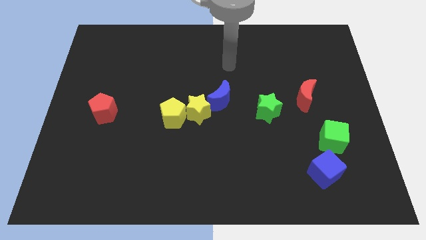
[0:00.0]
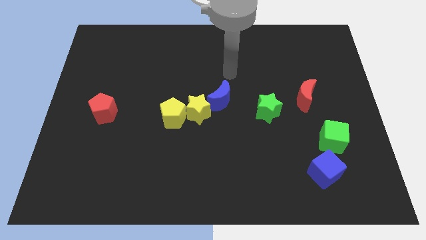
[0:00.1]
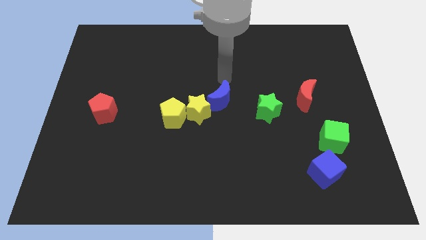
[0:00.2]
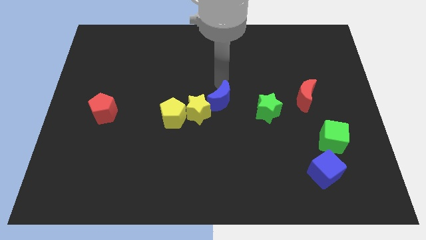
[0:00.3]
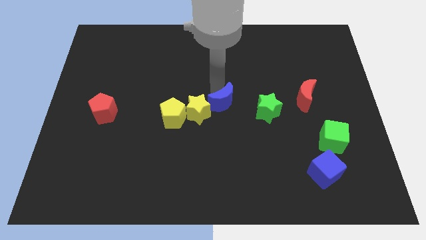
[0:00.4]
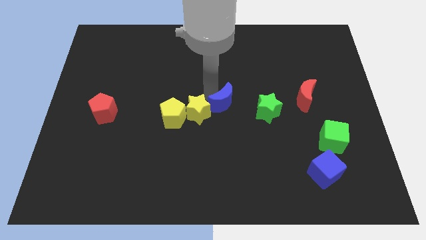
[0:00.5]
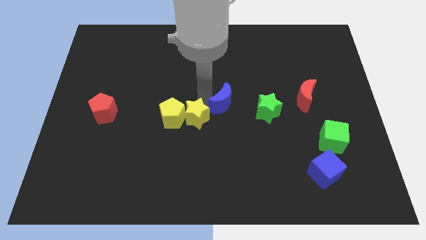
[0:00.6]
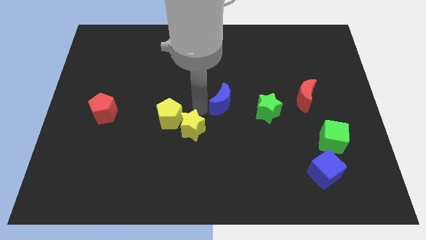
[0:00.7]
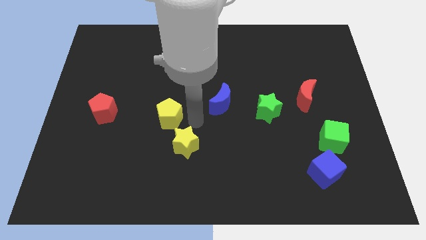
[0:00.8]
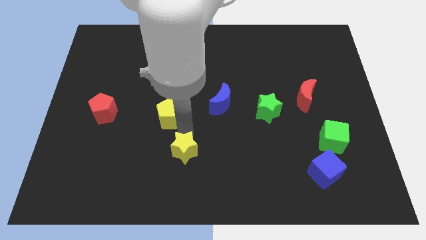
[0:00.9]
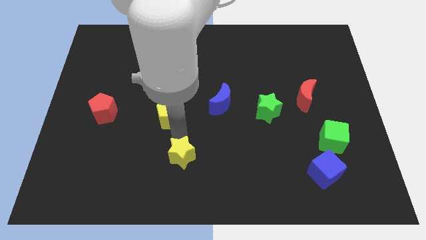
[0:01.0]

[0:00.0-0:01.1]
move the yellow pentagon away from the yellow star

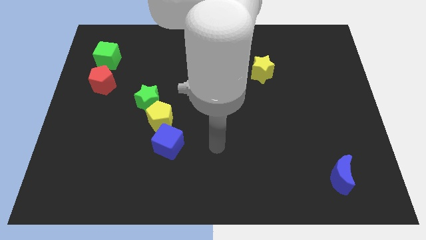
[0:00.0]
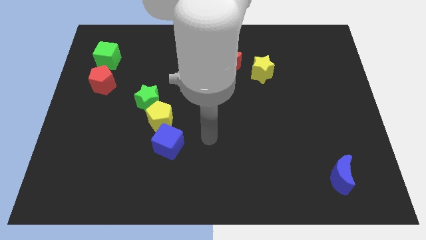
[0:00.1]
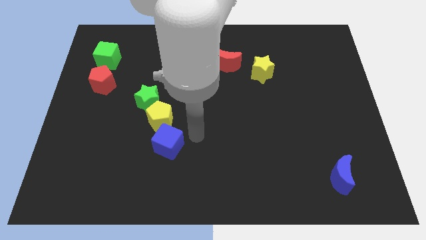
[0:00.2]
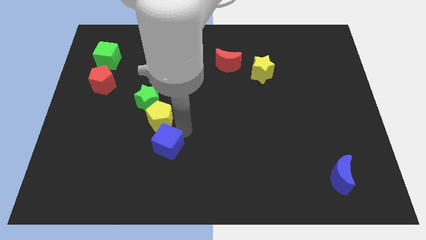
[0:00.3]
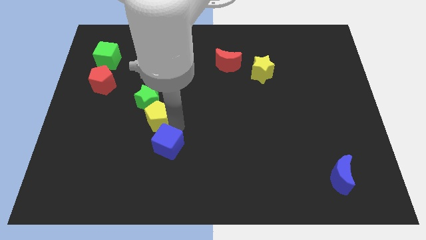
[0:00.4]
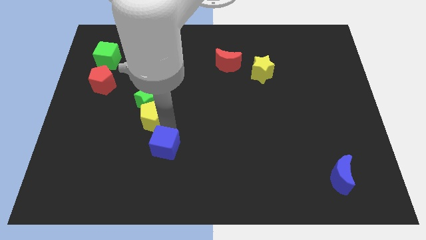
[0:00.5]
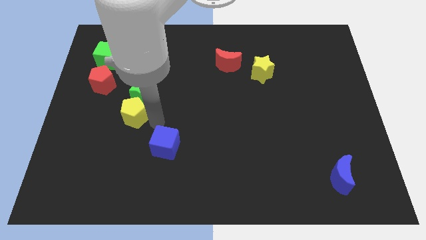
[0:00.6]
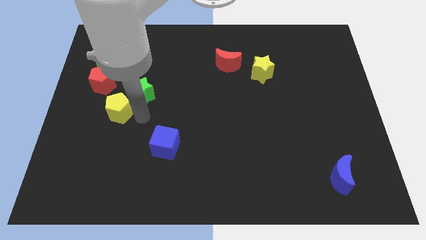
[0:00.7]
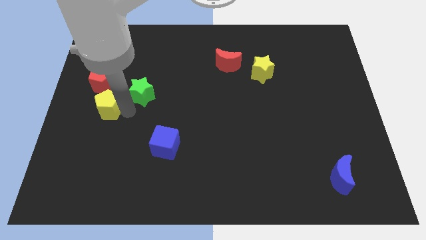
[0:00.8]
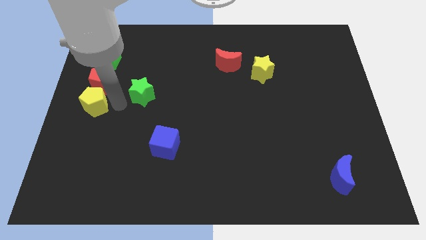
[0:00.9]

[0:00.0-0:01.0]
pull the green star apart from the yellow pentagon

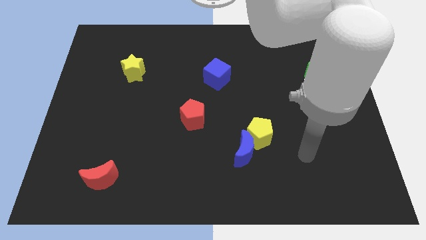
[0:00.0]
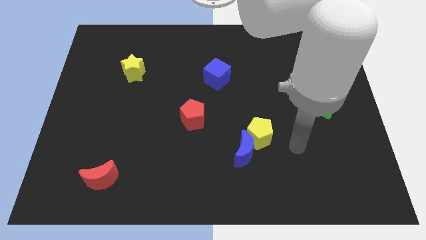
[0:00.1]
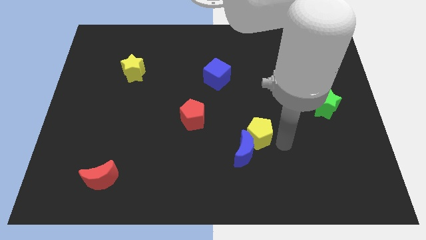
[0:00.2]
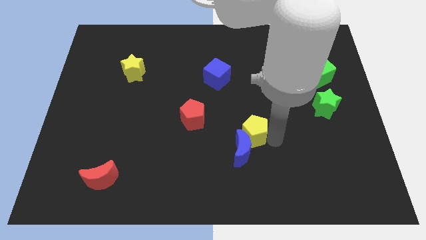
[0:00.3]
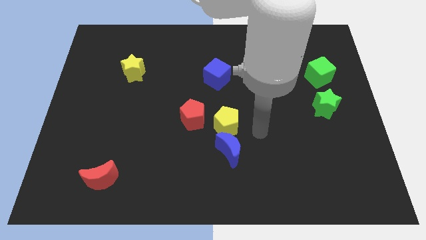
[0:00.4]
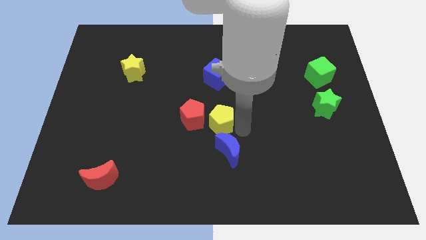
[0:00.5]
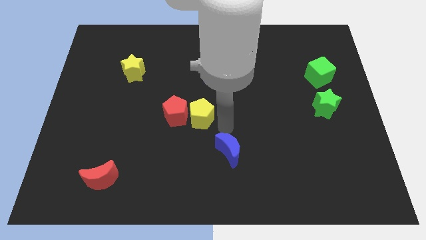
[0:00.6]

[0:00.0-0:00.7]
move the blue moon away from the yellow pentagon

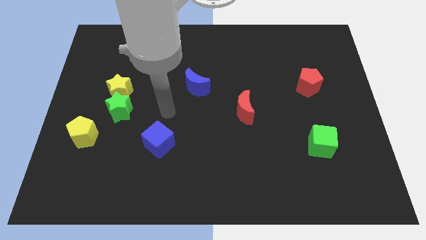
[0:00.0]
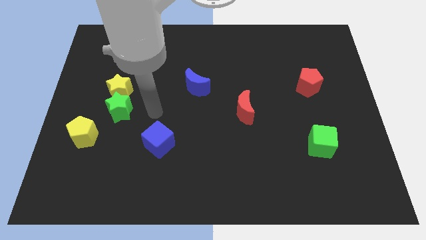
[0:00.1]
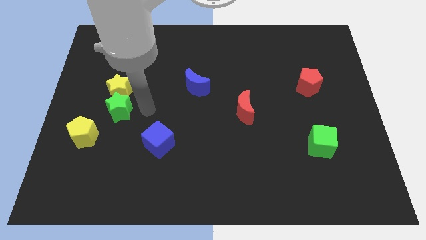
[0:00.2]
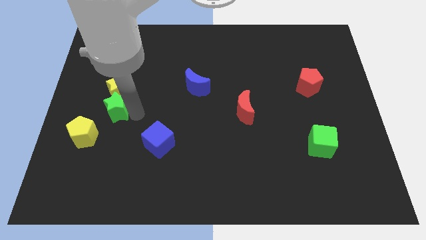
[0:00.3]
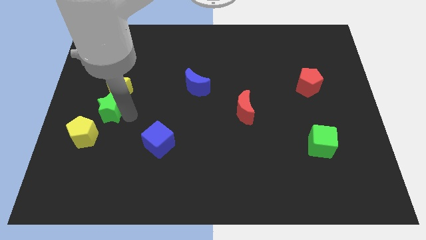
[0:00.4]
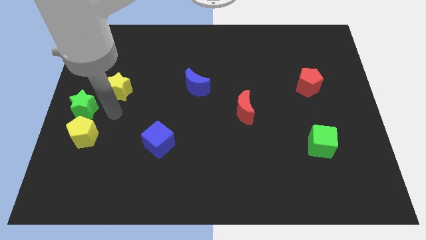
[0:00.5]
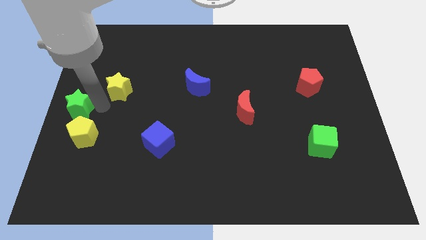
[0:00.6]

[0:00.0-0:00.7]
move the yellow star away from the green star

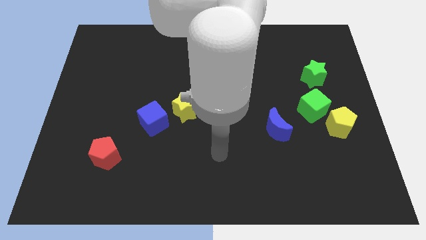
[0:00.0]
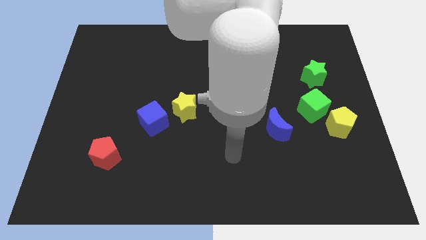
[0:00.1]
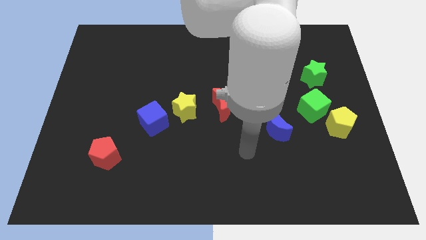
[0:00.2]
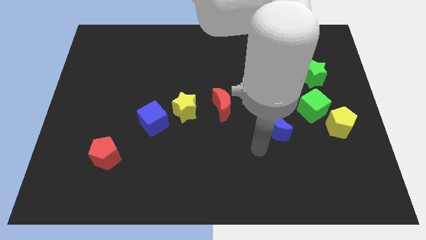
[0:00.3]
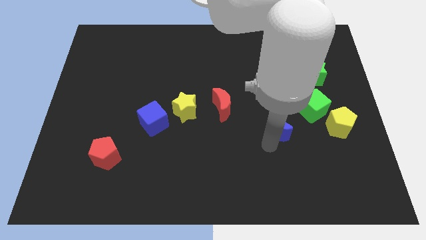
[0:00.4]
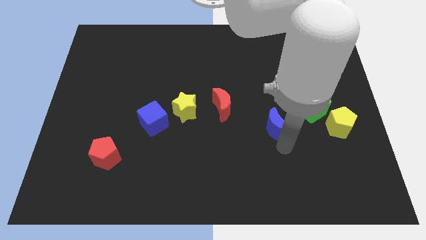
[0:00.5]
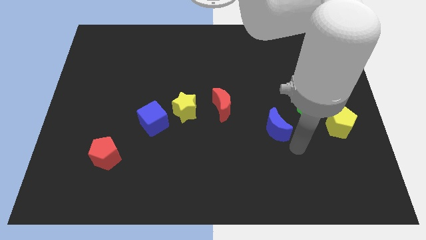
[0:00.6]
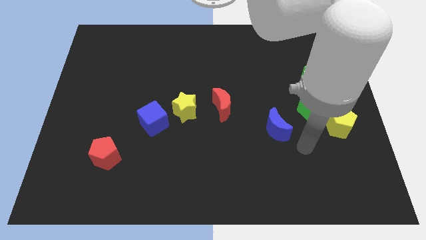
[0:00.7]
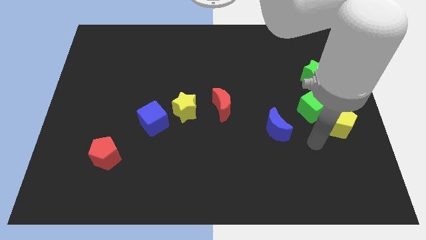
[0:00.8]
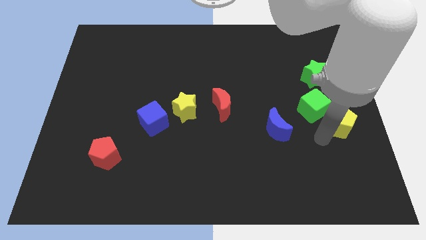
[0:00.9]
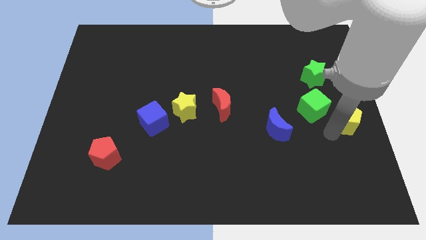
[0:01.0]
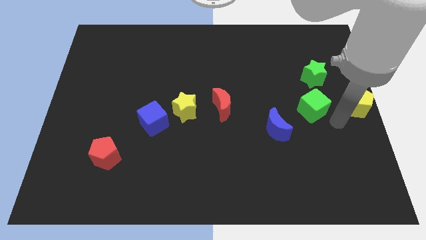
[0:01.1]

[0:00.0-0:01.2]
move the green cube away from the yellow pentagon

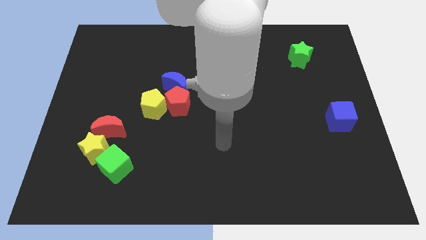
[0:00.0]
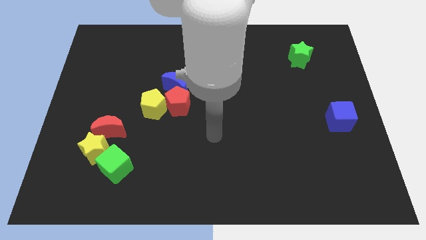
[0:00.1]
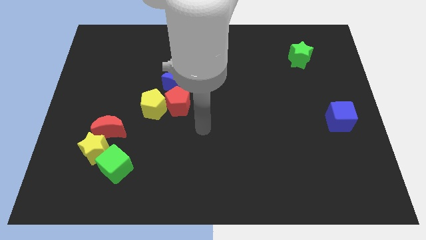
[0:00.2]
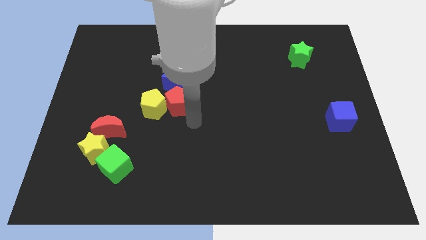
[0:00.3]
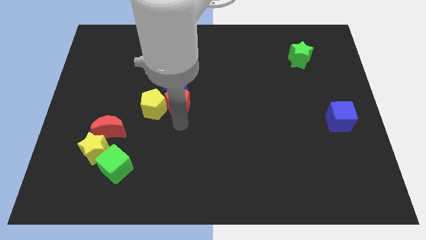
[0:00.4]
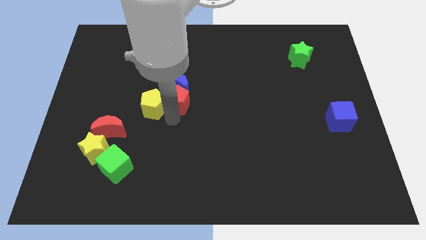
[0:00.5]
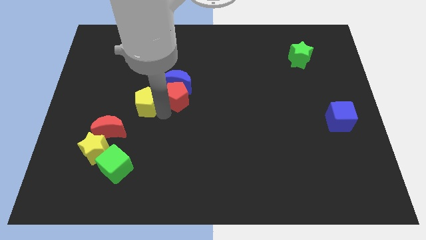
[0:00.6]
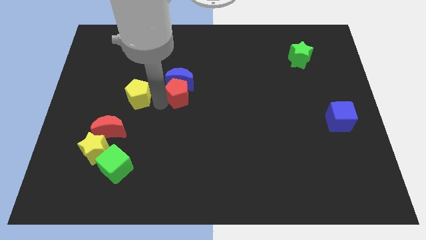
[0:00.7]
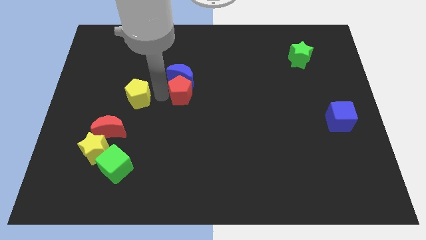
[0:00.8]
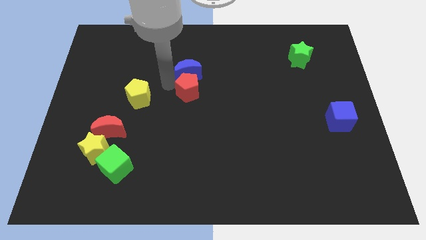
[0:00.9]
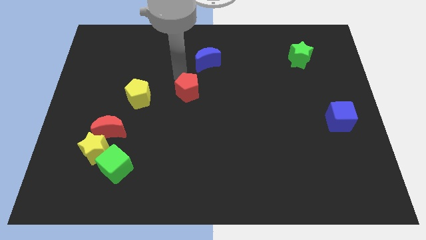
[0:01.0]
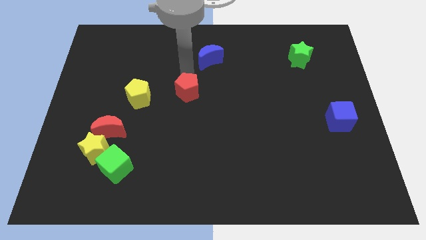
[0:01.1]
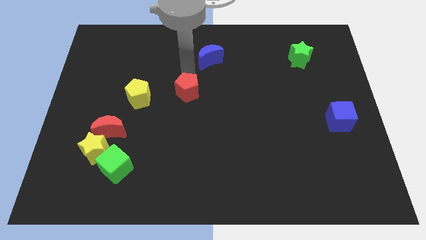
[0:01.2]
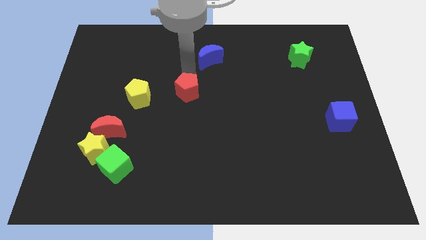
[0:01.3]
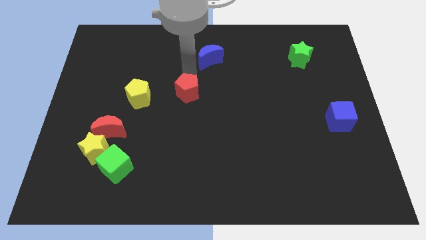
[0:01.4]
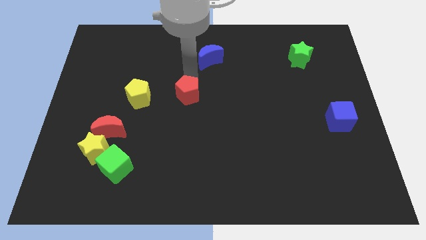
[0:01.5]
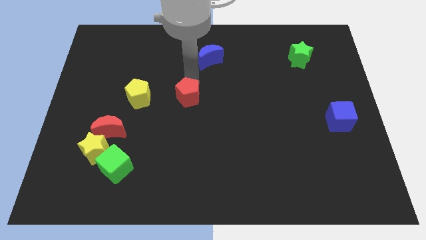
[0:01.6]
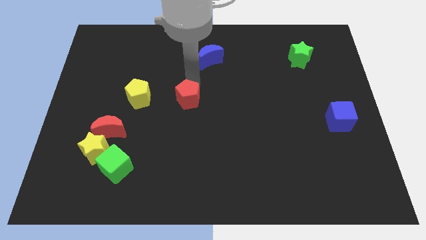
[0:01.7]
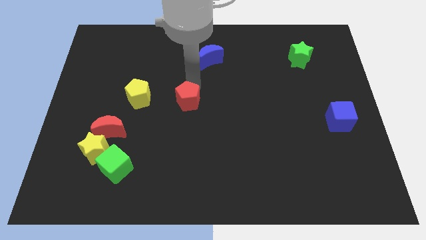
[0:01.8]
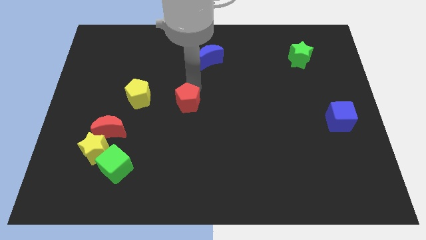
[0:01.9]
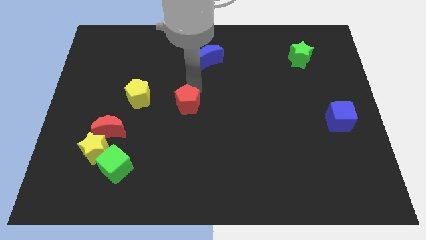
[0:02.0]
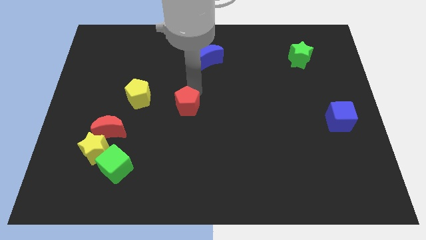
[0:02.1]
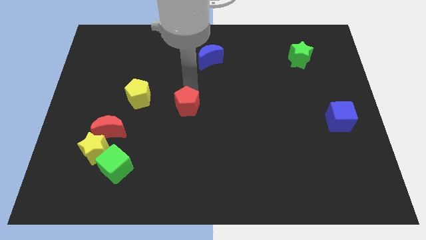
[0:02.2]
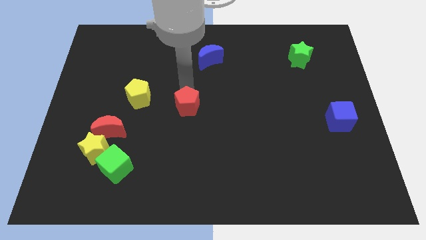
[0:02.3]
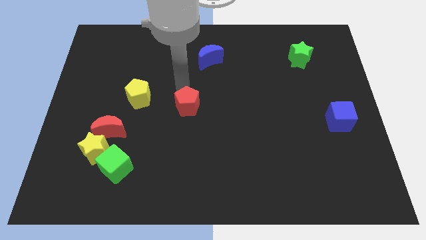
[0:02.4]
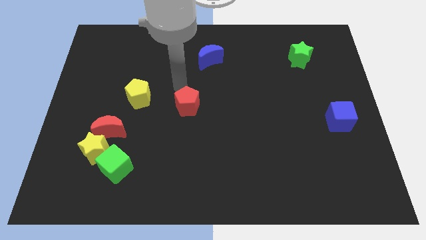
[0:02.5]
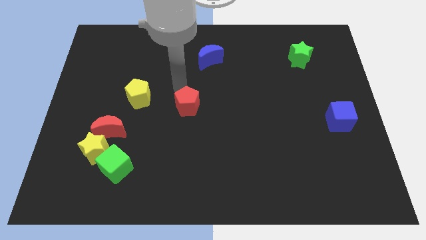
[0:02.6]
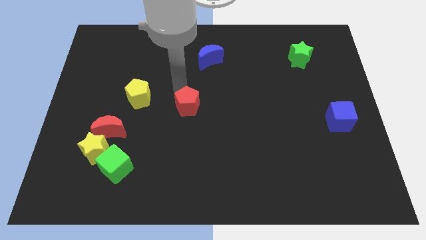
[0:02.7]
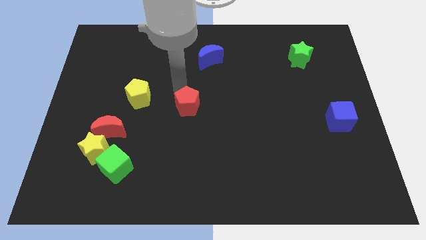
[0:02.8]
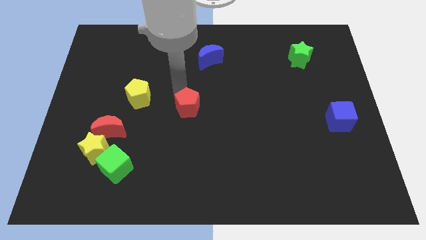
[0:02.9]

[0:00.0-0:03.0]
pull the red pentagon apart from the blue moon and yellow pentagon

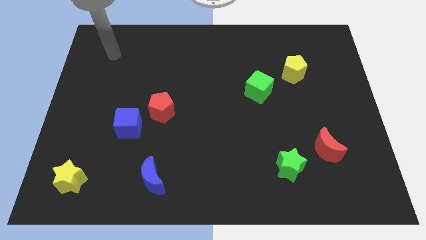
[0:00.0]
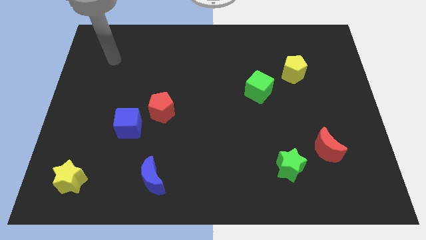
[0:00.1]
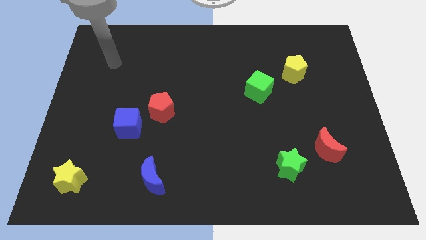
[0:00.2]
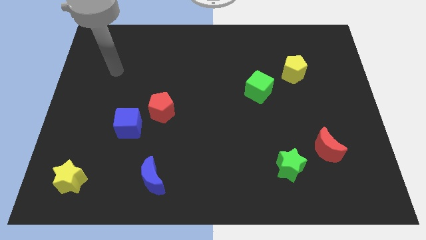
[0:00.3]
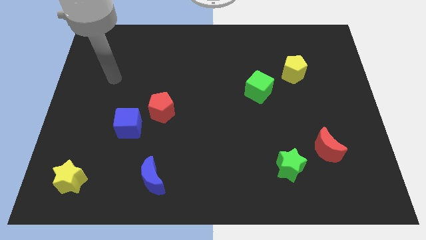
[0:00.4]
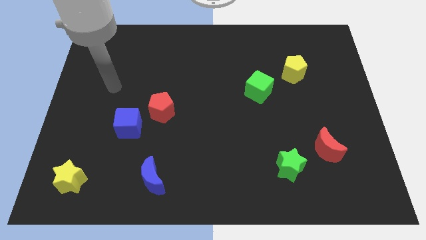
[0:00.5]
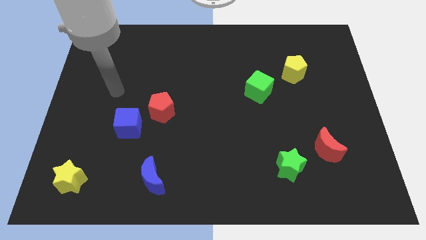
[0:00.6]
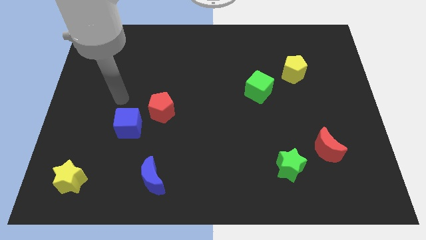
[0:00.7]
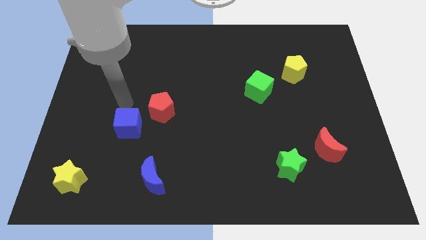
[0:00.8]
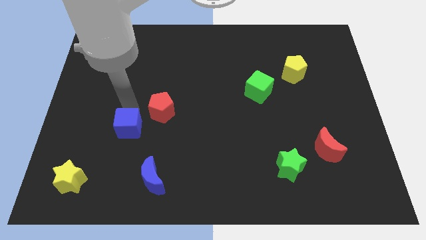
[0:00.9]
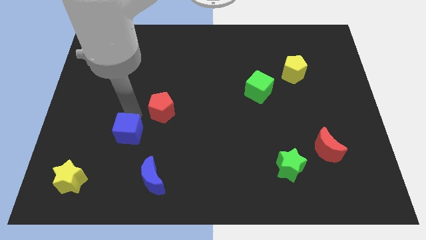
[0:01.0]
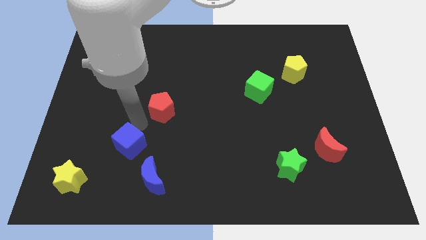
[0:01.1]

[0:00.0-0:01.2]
separate the red pentagon from the blue cube

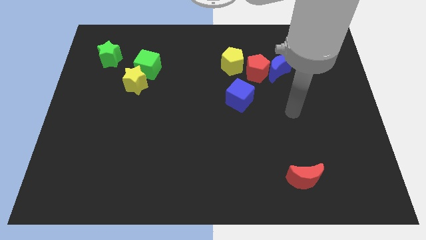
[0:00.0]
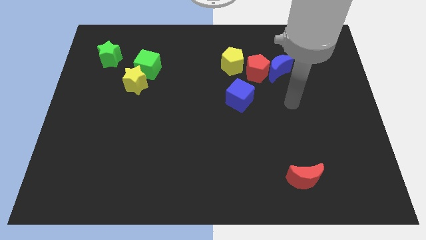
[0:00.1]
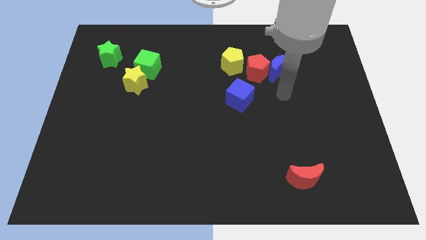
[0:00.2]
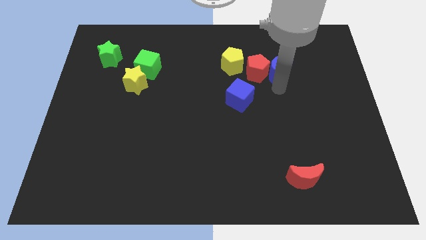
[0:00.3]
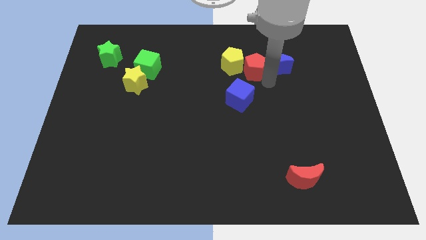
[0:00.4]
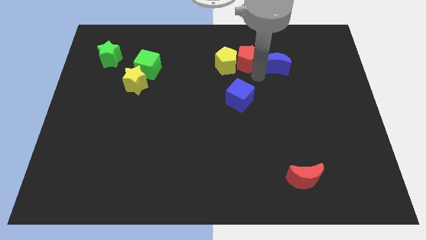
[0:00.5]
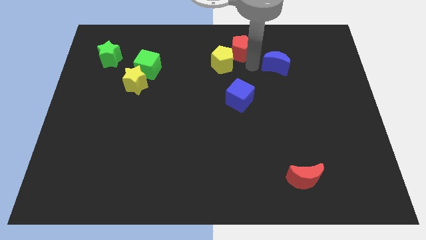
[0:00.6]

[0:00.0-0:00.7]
move the blue moon away from the red pentagon
